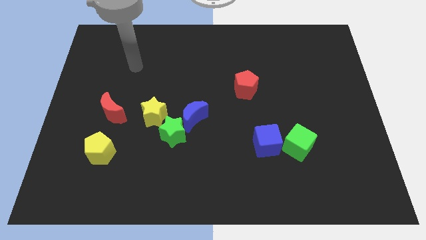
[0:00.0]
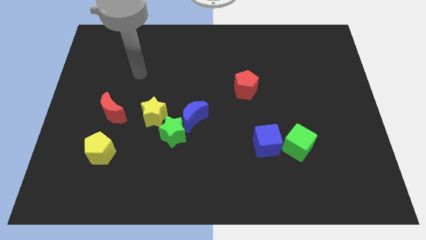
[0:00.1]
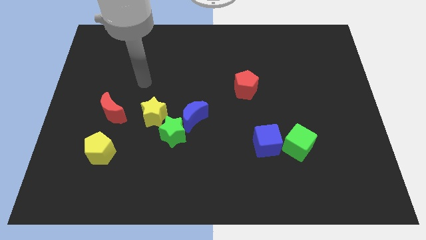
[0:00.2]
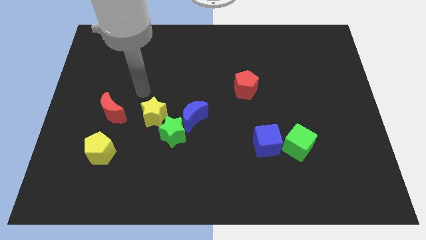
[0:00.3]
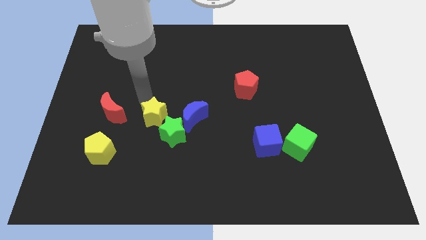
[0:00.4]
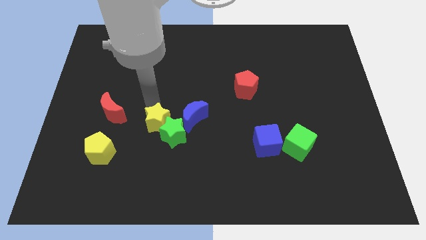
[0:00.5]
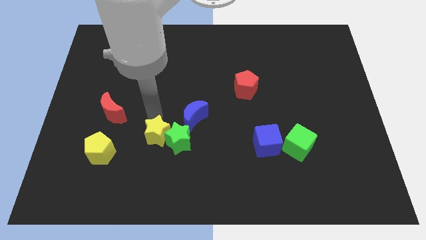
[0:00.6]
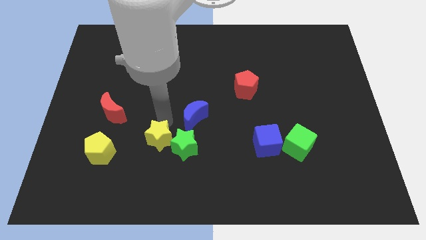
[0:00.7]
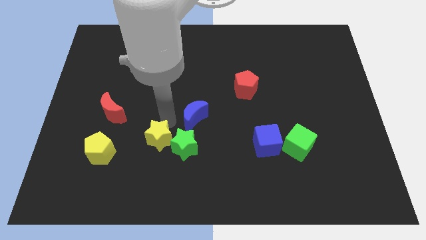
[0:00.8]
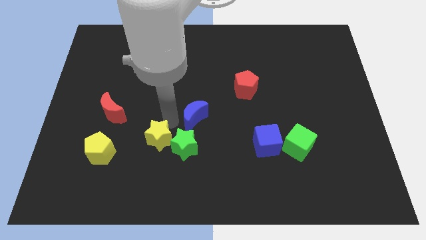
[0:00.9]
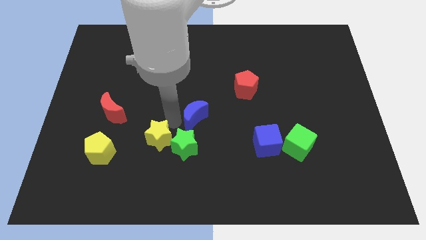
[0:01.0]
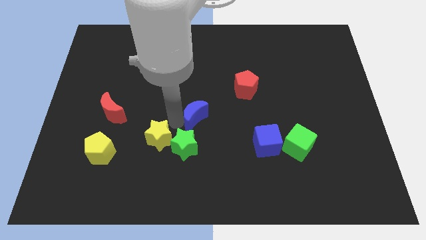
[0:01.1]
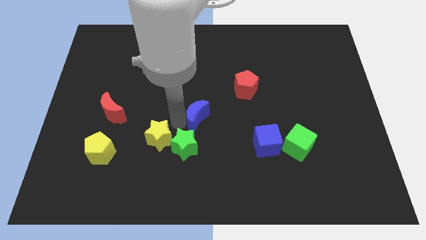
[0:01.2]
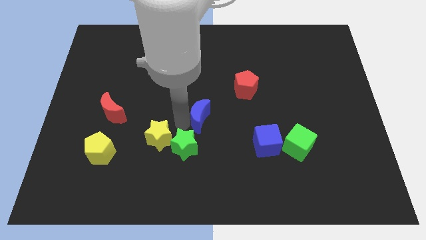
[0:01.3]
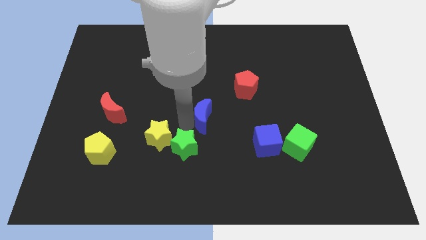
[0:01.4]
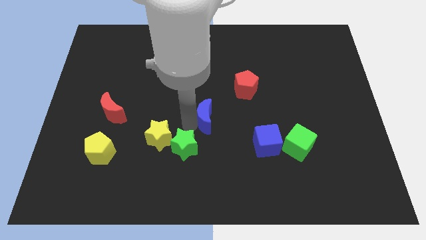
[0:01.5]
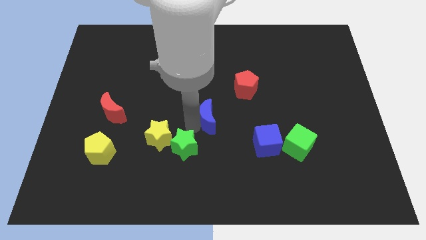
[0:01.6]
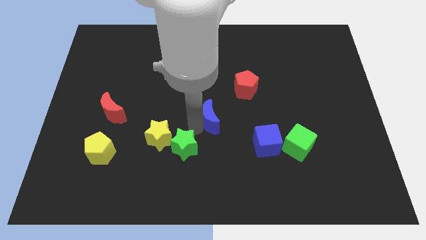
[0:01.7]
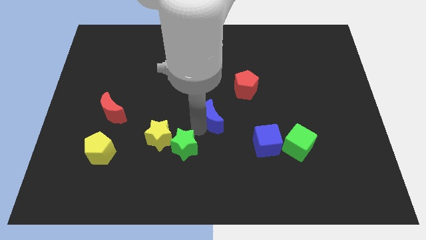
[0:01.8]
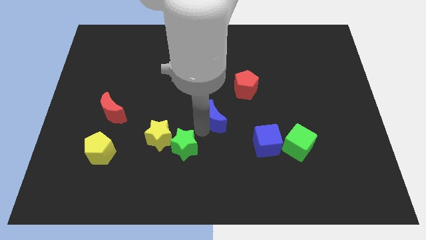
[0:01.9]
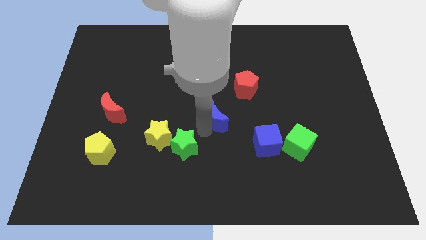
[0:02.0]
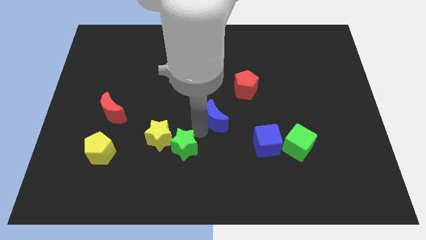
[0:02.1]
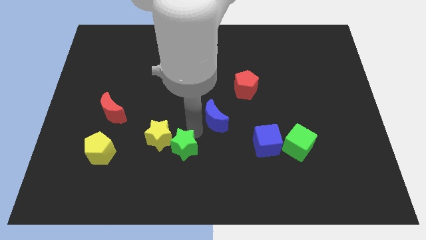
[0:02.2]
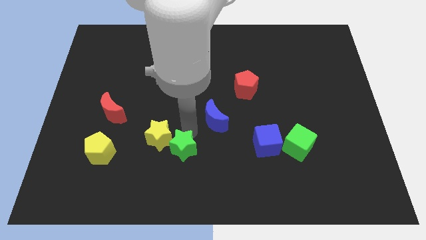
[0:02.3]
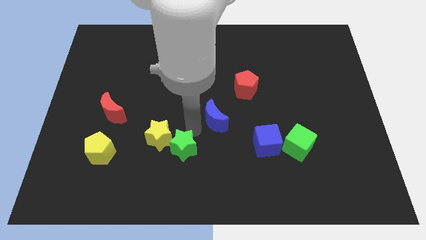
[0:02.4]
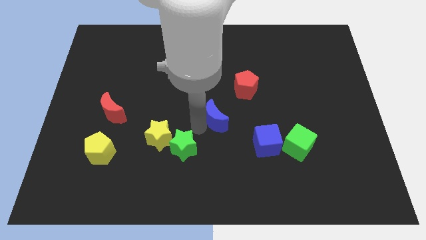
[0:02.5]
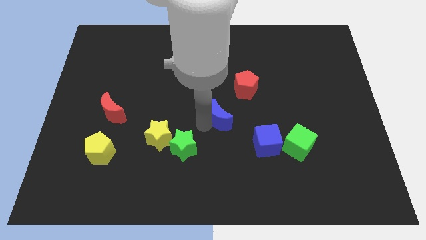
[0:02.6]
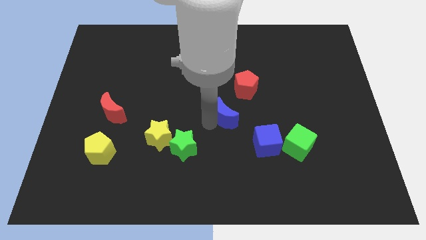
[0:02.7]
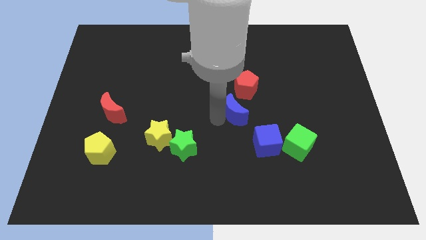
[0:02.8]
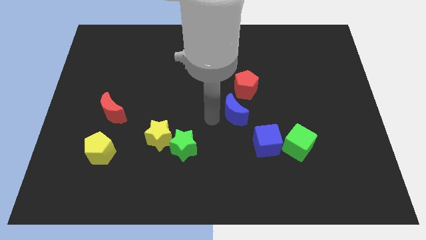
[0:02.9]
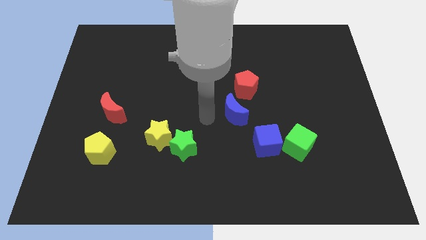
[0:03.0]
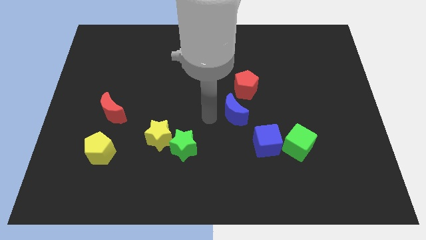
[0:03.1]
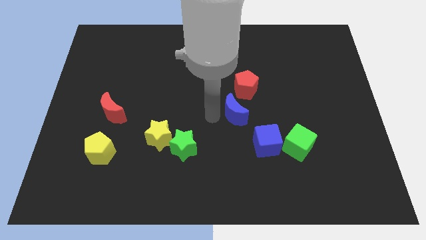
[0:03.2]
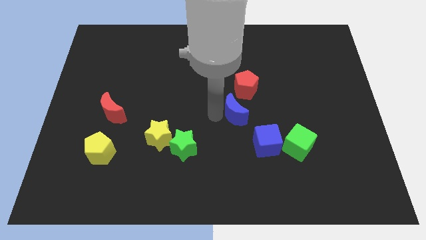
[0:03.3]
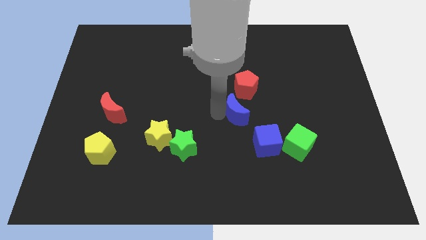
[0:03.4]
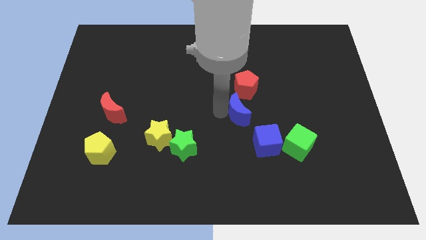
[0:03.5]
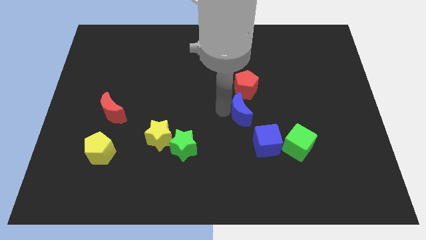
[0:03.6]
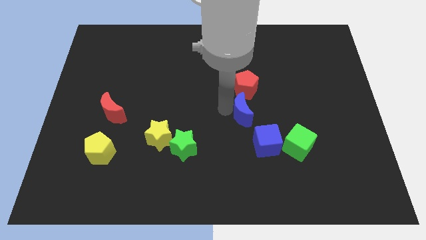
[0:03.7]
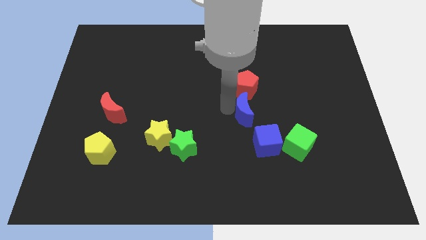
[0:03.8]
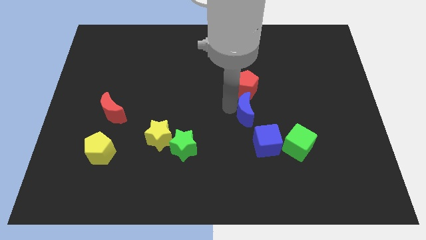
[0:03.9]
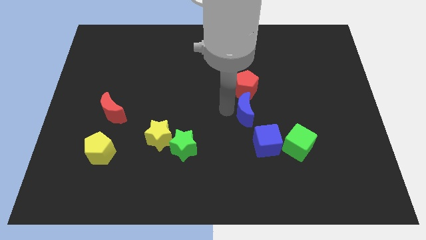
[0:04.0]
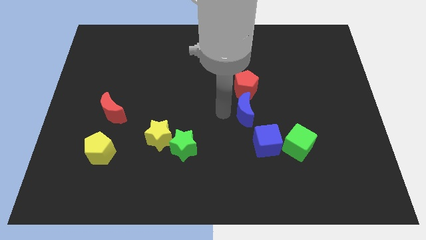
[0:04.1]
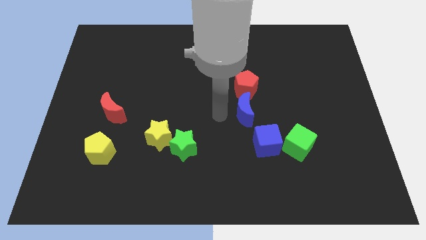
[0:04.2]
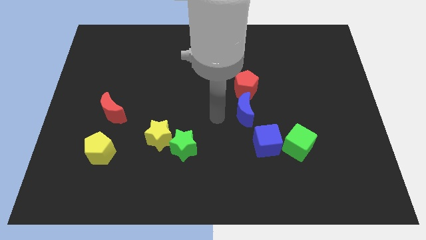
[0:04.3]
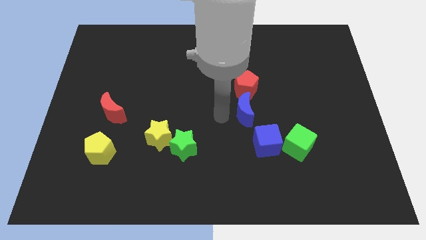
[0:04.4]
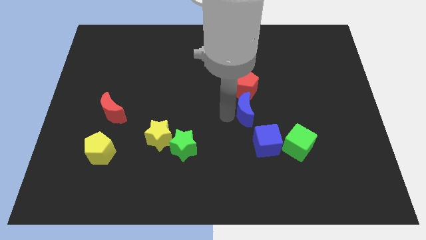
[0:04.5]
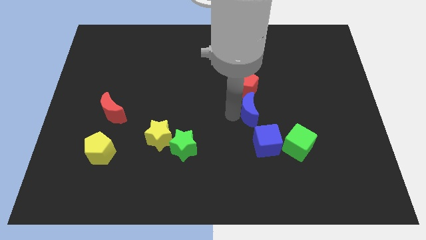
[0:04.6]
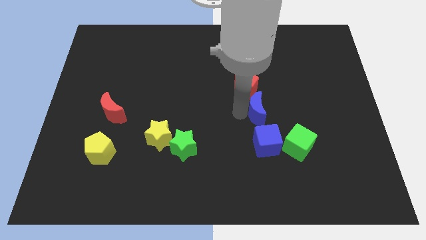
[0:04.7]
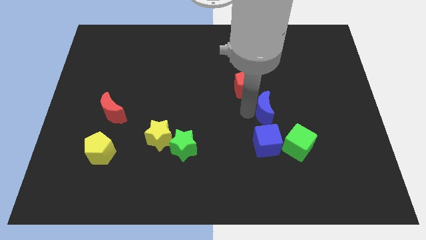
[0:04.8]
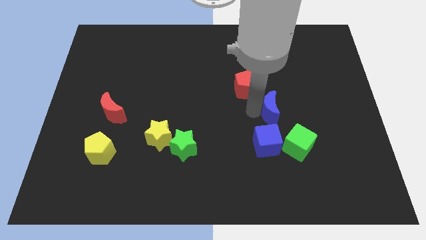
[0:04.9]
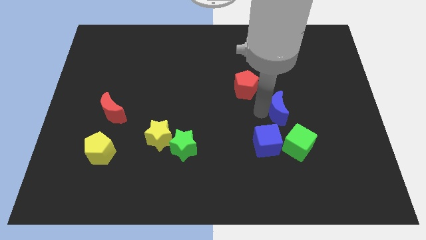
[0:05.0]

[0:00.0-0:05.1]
slide the blue moon above the green cube

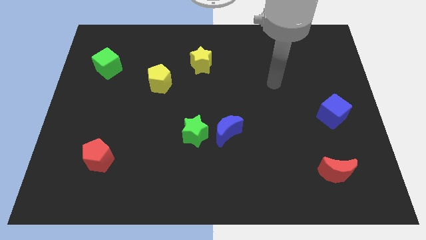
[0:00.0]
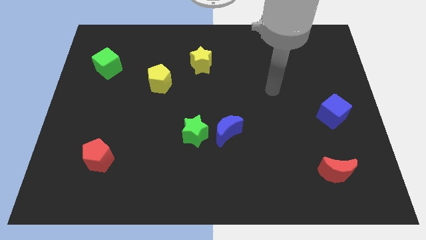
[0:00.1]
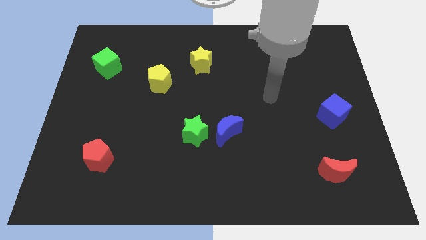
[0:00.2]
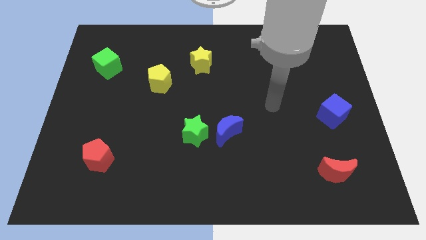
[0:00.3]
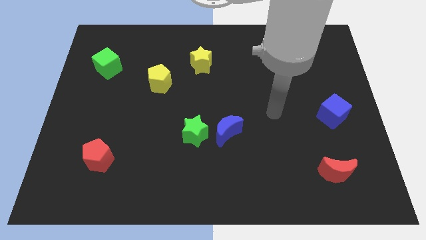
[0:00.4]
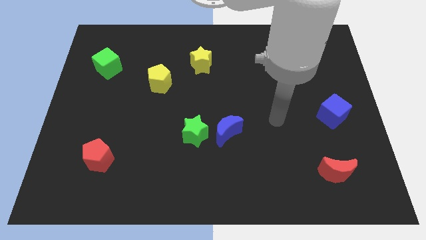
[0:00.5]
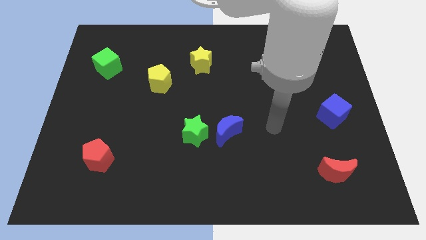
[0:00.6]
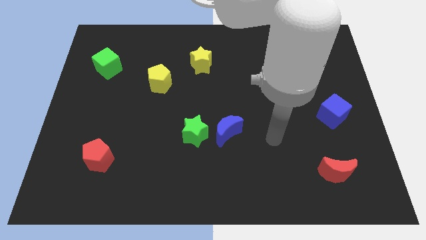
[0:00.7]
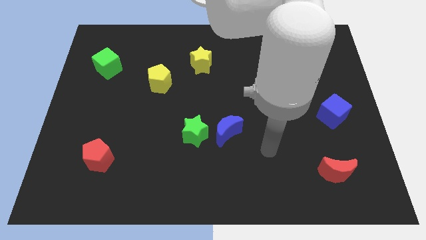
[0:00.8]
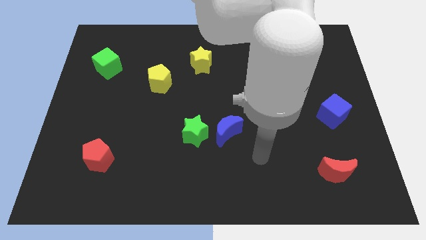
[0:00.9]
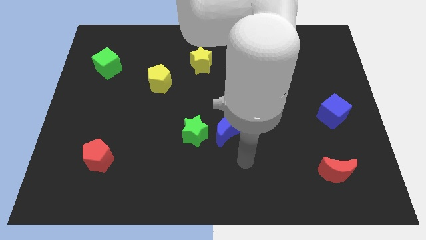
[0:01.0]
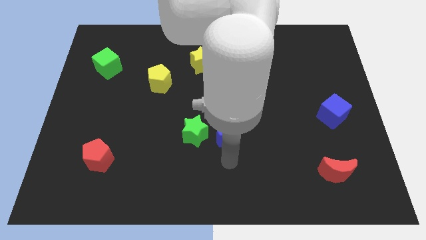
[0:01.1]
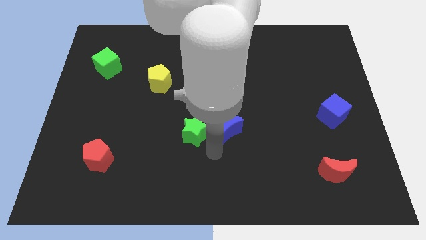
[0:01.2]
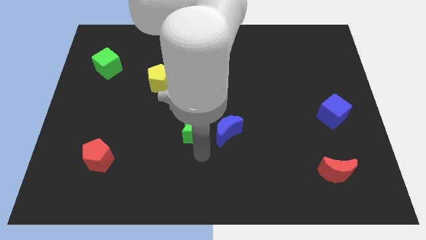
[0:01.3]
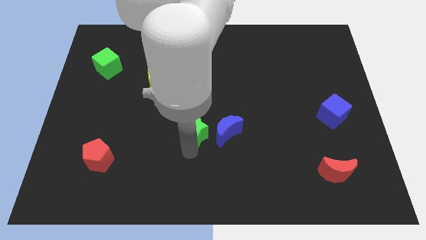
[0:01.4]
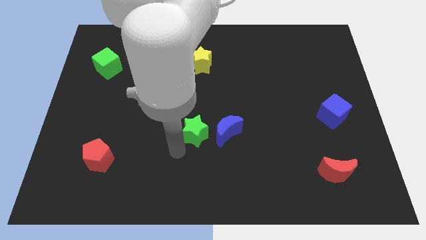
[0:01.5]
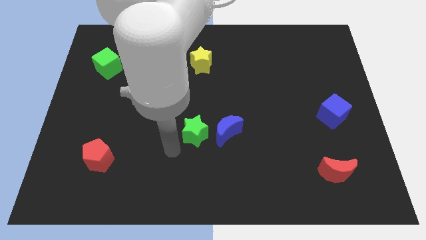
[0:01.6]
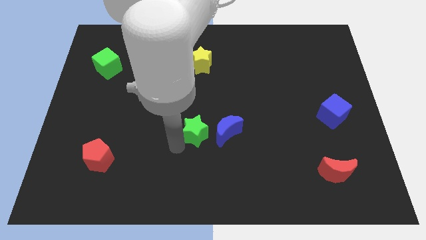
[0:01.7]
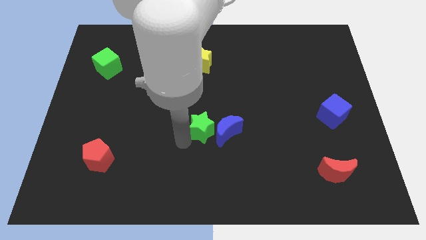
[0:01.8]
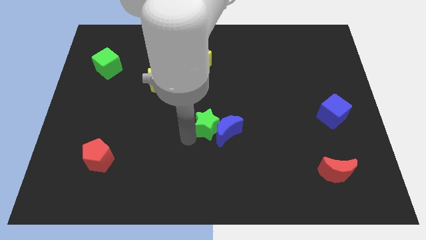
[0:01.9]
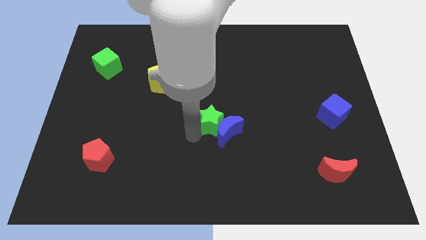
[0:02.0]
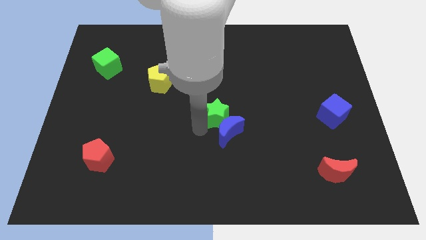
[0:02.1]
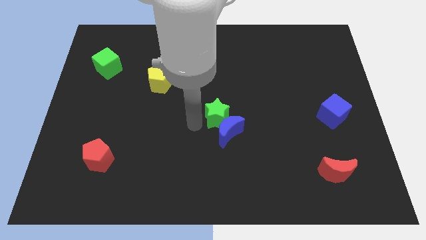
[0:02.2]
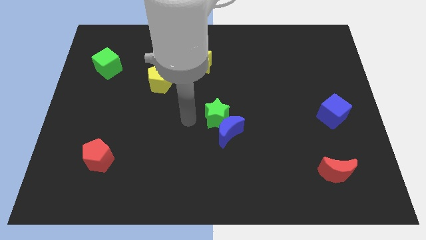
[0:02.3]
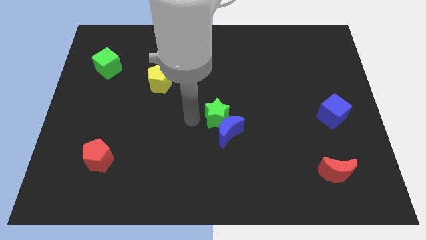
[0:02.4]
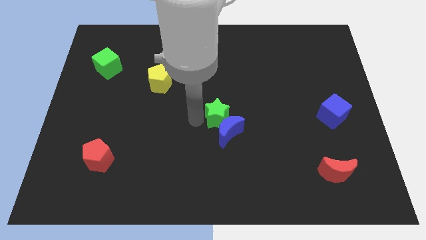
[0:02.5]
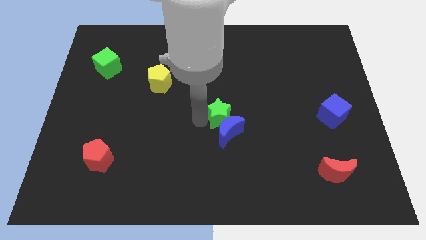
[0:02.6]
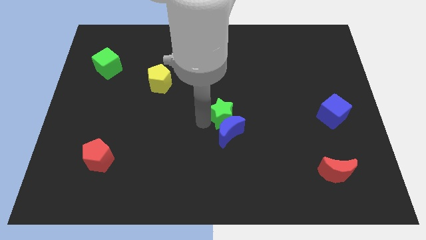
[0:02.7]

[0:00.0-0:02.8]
push the green star diagonally up and to the right of the blue moon
